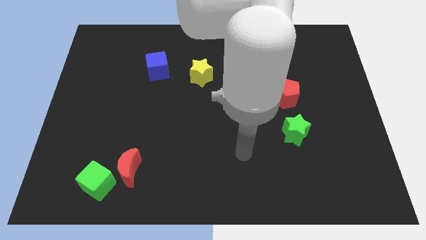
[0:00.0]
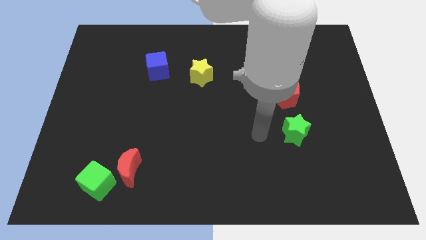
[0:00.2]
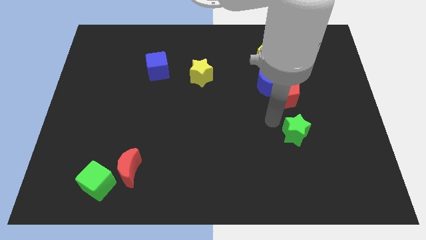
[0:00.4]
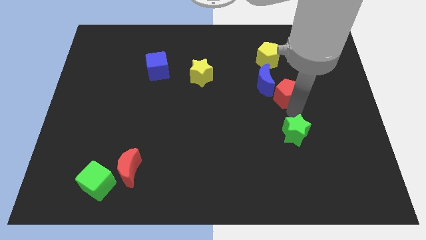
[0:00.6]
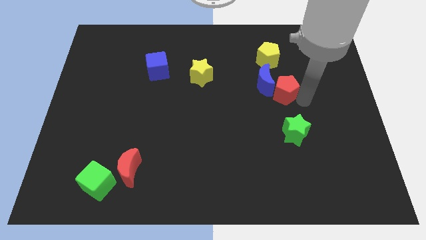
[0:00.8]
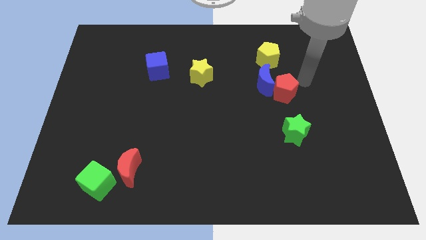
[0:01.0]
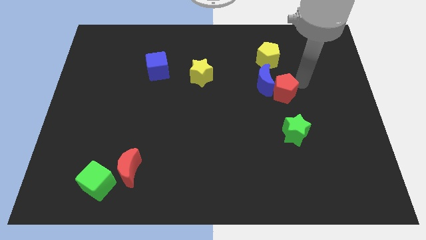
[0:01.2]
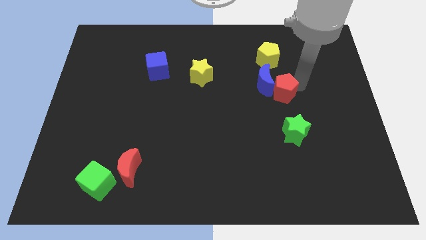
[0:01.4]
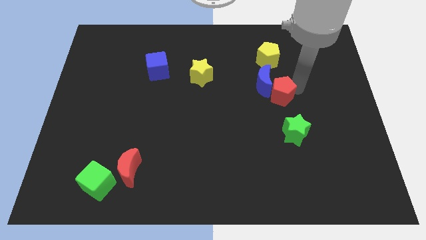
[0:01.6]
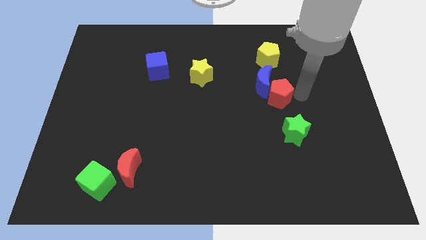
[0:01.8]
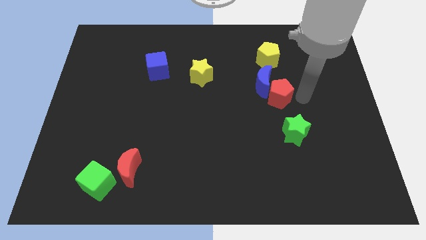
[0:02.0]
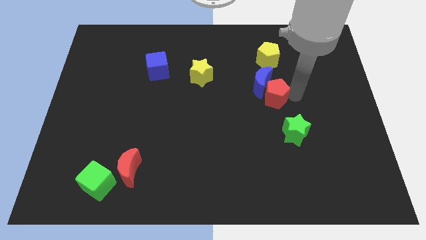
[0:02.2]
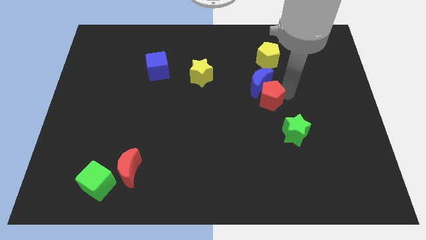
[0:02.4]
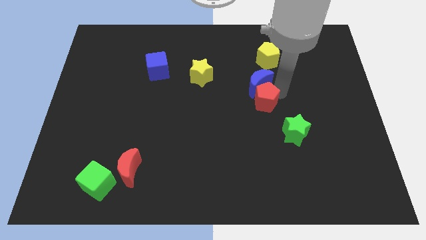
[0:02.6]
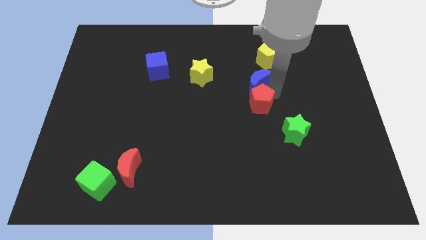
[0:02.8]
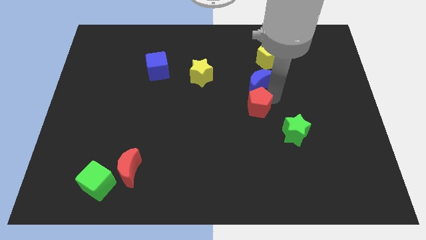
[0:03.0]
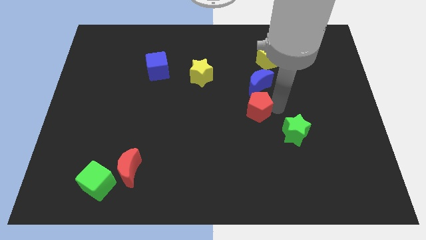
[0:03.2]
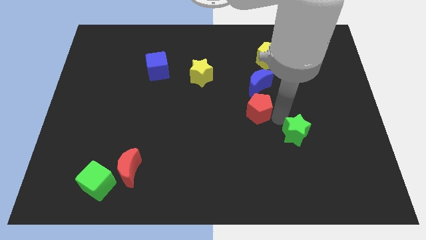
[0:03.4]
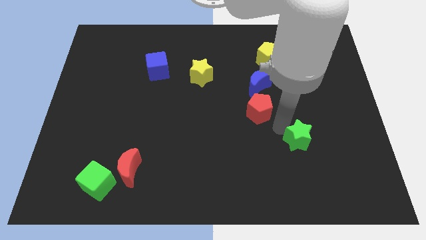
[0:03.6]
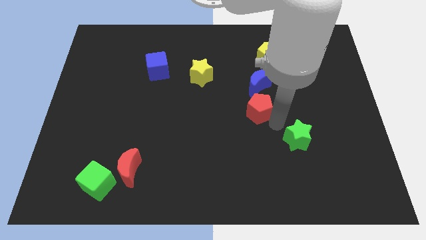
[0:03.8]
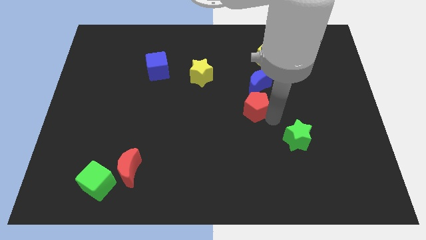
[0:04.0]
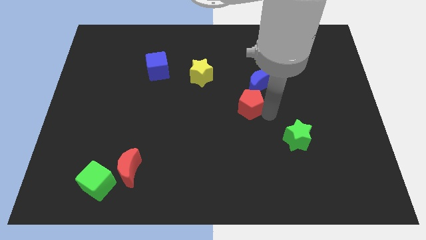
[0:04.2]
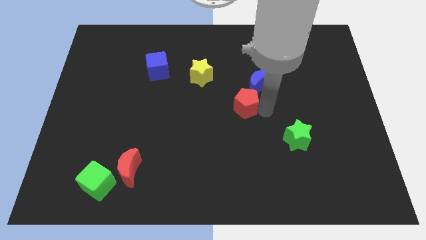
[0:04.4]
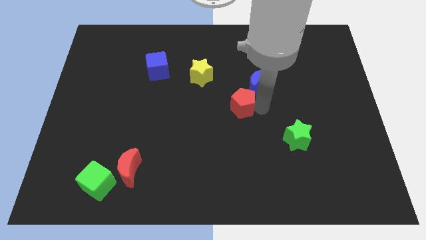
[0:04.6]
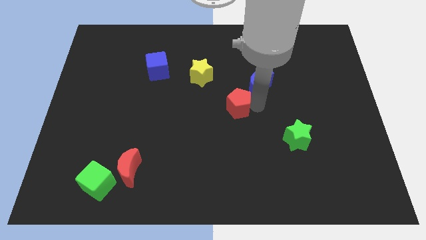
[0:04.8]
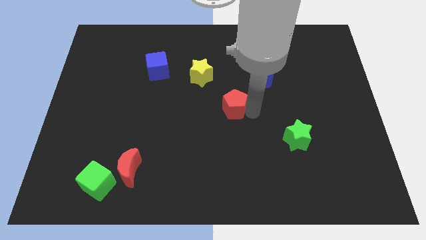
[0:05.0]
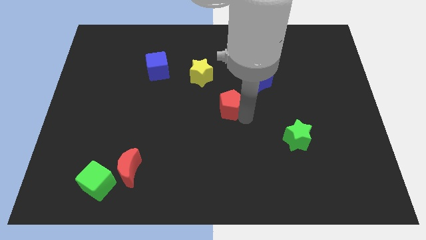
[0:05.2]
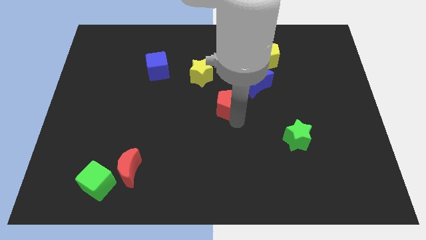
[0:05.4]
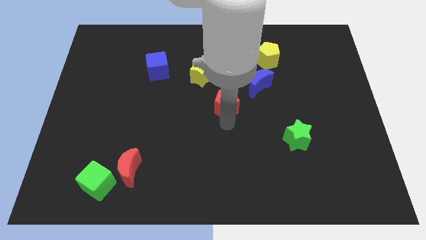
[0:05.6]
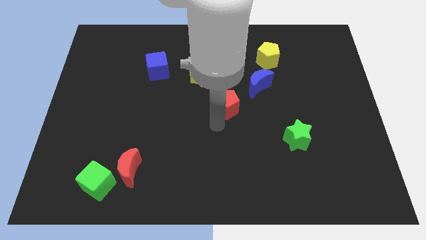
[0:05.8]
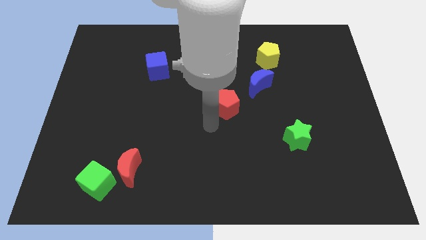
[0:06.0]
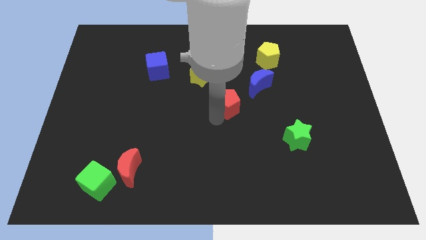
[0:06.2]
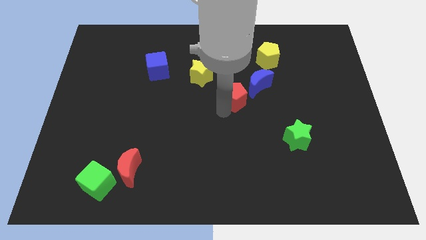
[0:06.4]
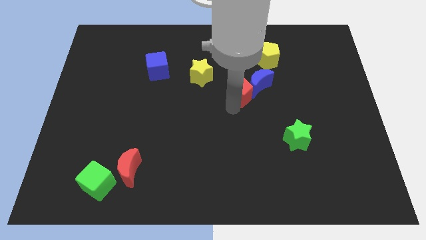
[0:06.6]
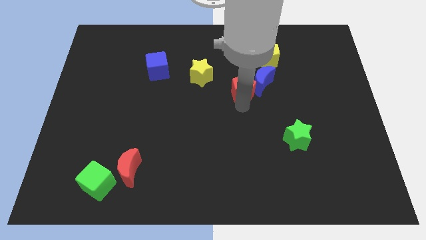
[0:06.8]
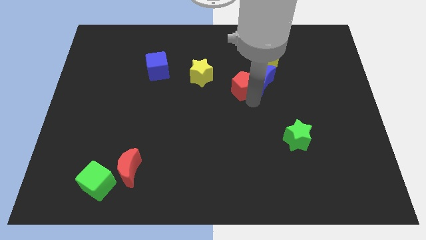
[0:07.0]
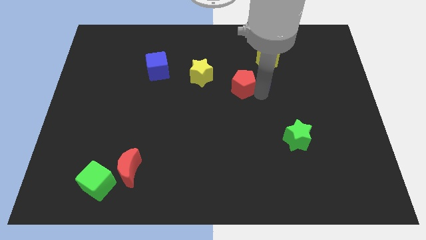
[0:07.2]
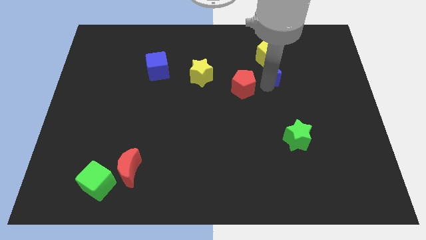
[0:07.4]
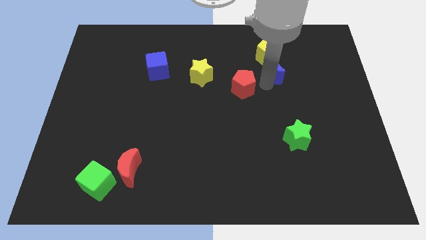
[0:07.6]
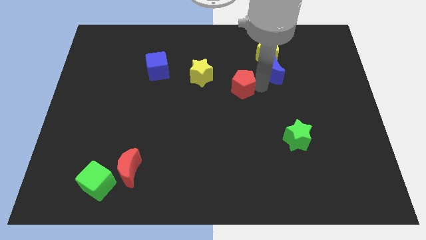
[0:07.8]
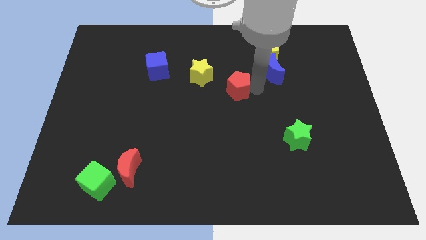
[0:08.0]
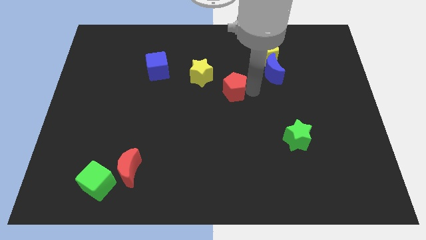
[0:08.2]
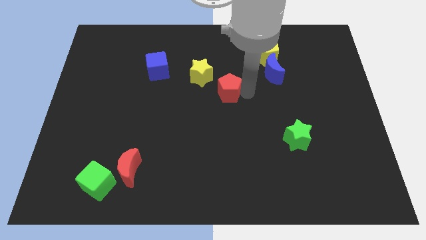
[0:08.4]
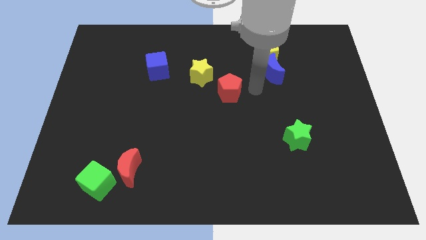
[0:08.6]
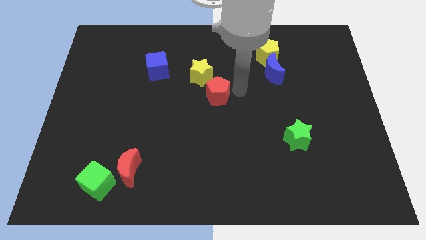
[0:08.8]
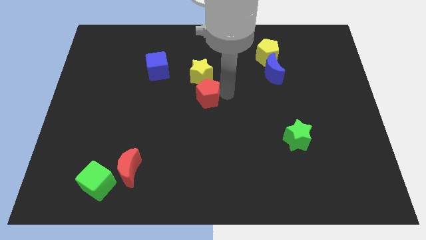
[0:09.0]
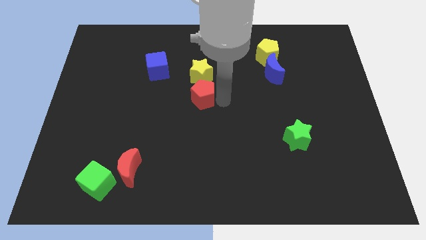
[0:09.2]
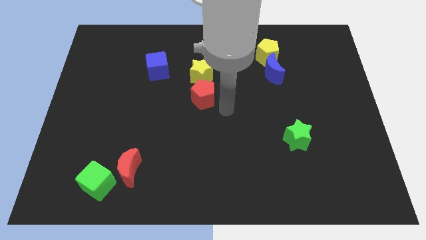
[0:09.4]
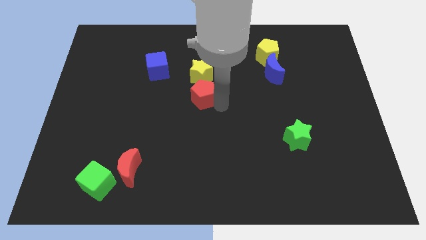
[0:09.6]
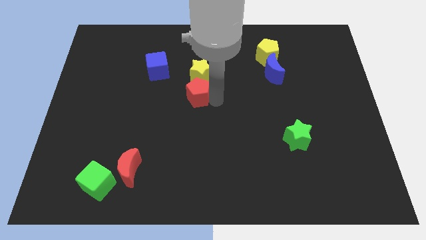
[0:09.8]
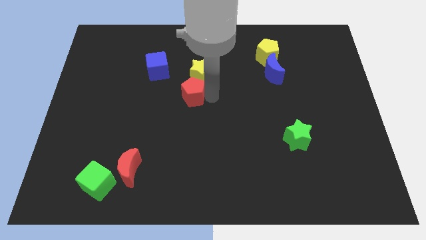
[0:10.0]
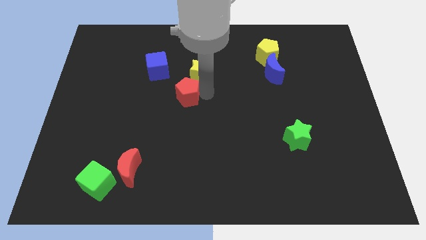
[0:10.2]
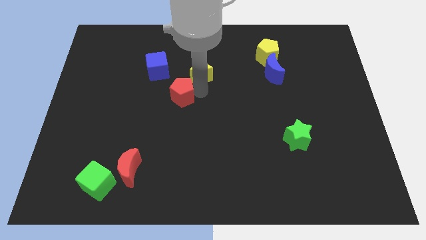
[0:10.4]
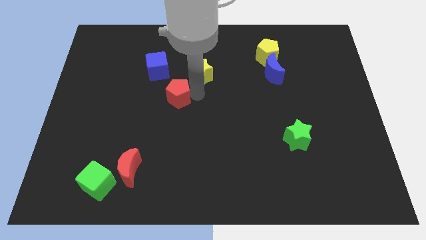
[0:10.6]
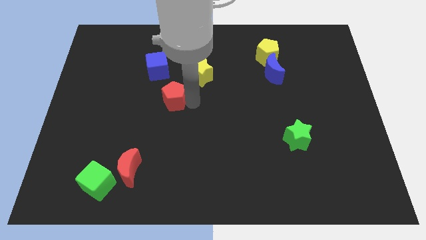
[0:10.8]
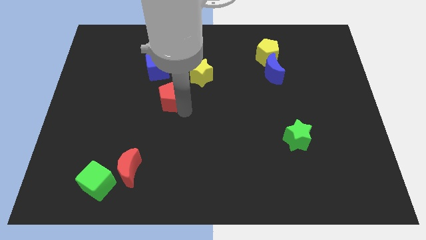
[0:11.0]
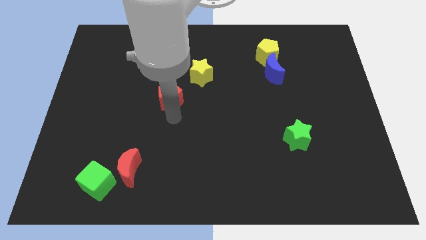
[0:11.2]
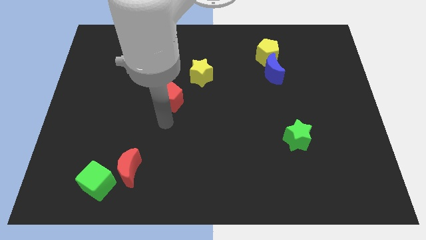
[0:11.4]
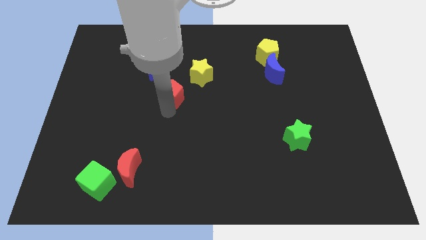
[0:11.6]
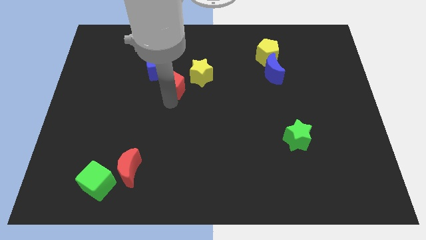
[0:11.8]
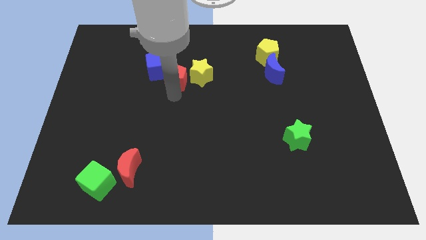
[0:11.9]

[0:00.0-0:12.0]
put the red pentagon close to the blue cube

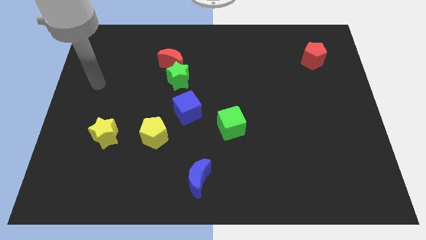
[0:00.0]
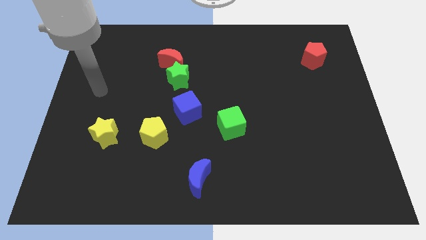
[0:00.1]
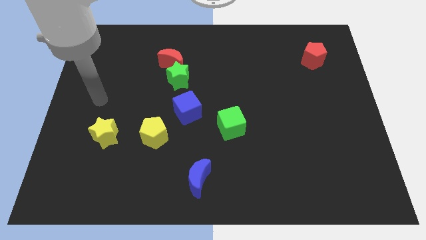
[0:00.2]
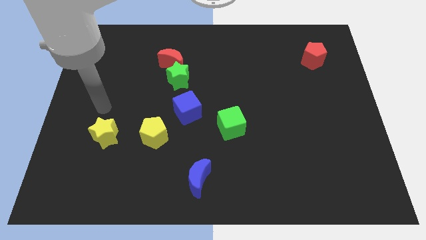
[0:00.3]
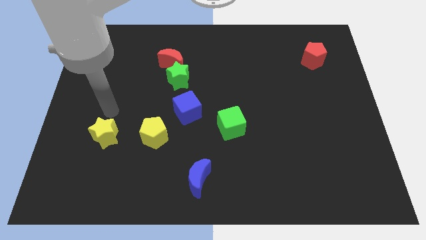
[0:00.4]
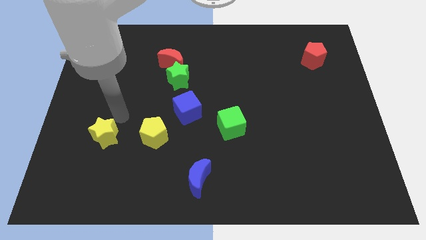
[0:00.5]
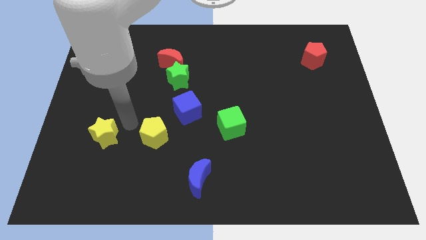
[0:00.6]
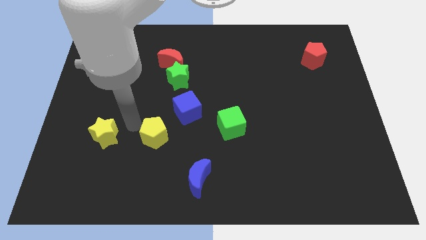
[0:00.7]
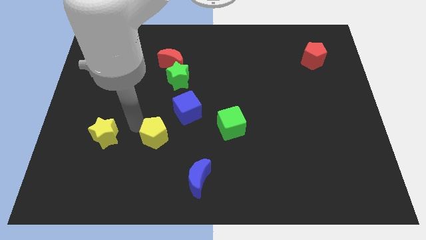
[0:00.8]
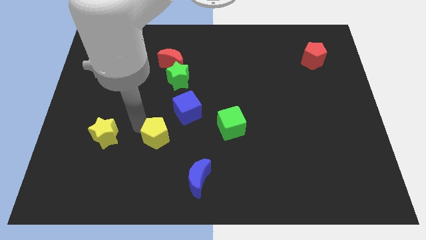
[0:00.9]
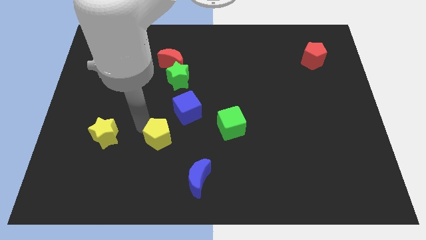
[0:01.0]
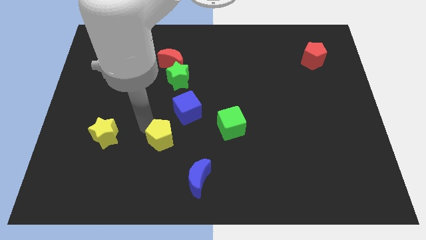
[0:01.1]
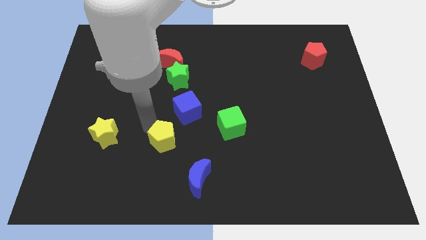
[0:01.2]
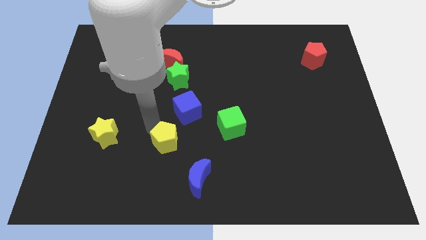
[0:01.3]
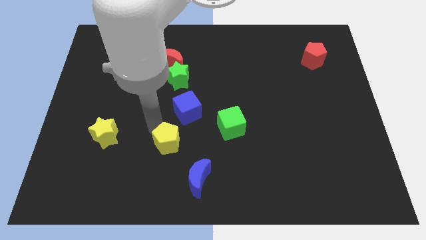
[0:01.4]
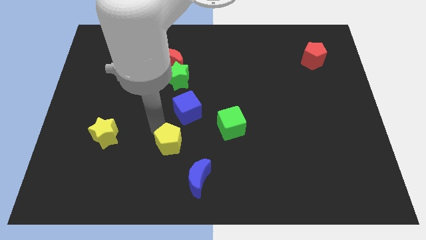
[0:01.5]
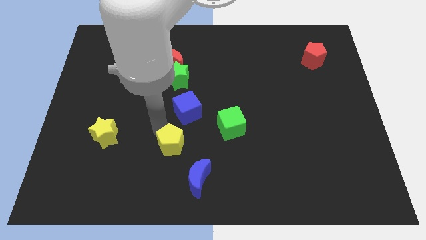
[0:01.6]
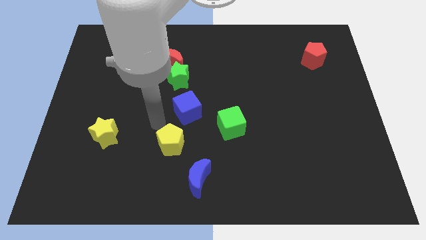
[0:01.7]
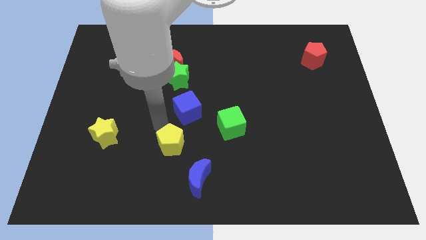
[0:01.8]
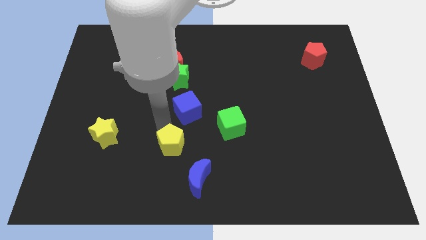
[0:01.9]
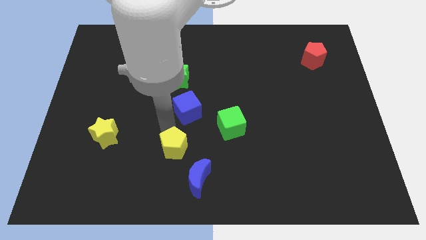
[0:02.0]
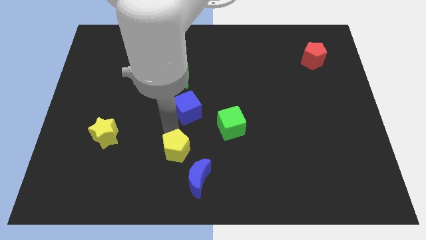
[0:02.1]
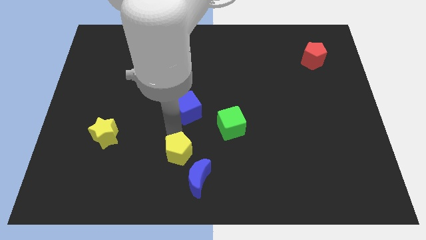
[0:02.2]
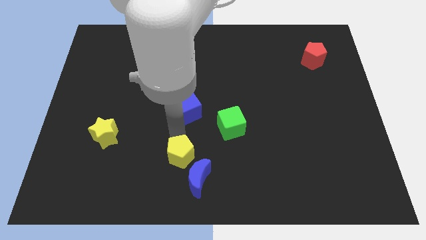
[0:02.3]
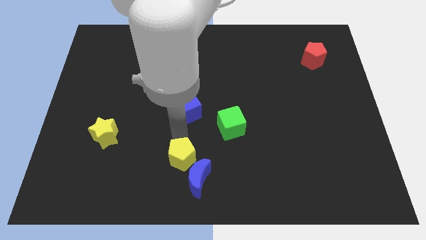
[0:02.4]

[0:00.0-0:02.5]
move the yellow pentagon next to the blue moon
